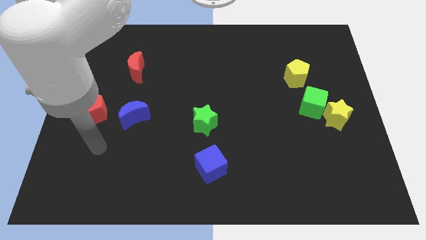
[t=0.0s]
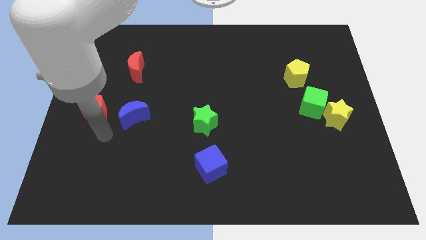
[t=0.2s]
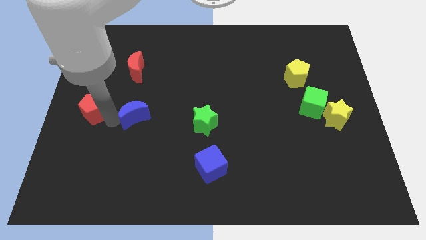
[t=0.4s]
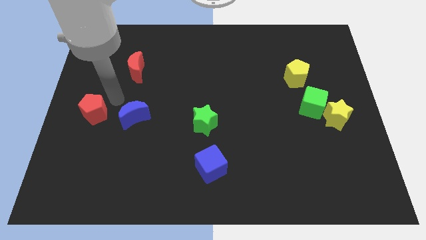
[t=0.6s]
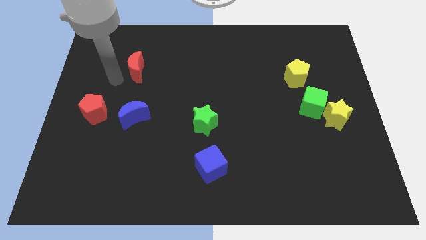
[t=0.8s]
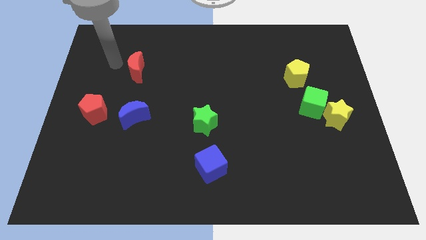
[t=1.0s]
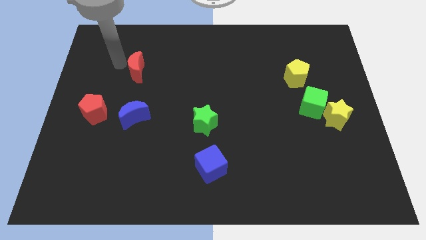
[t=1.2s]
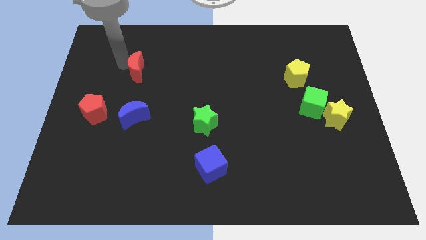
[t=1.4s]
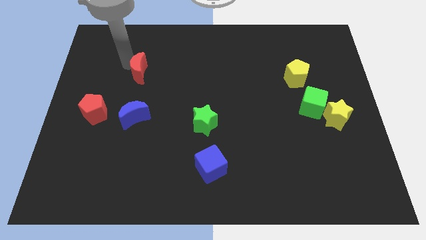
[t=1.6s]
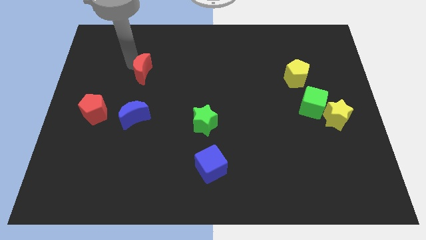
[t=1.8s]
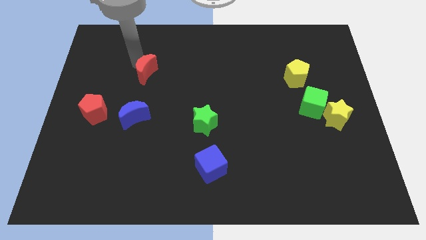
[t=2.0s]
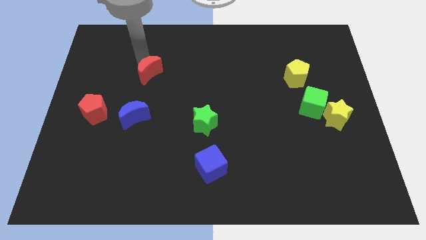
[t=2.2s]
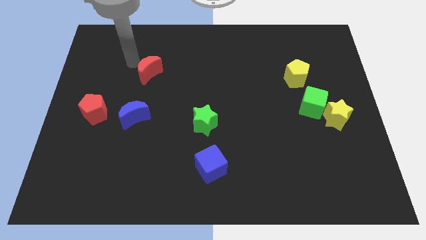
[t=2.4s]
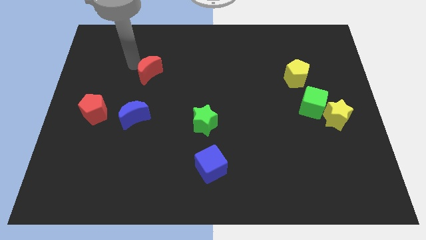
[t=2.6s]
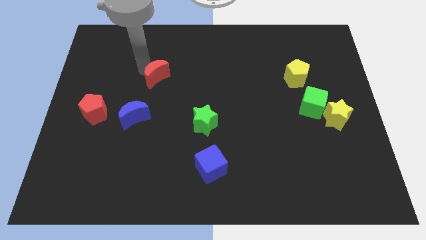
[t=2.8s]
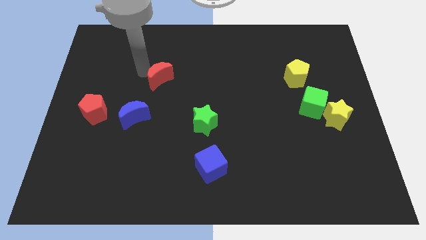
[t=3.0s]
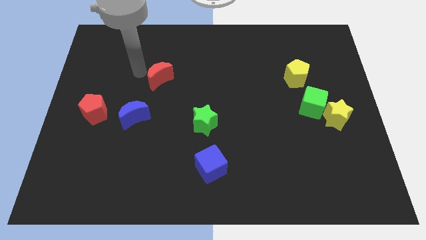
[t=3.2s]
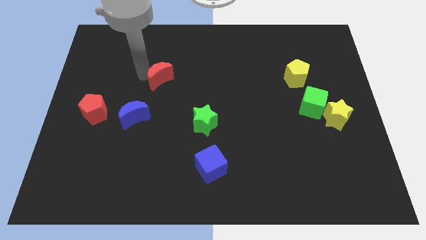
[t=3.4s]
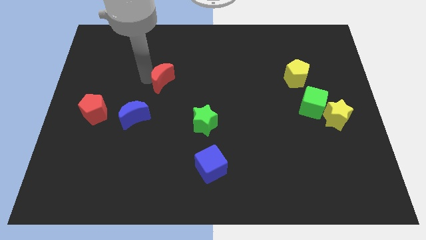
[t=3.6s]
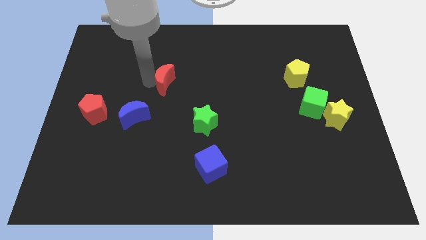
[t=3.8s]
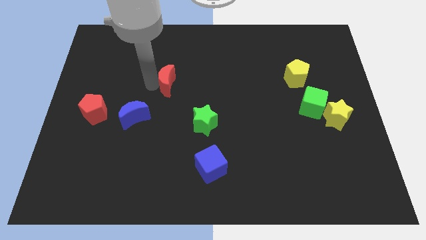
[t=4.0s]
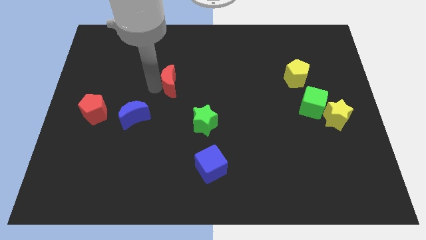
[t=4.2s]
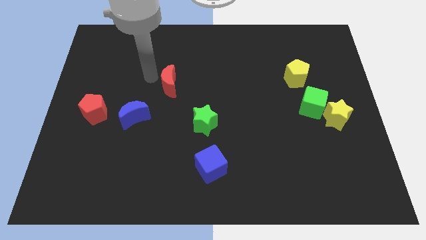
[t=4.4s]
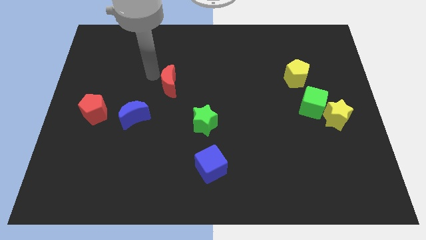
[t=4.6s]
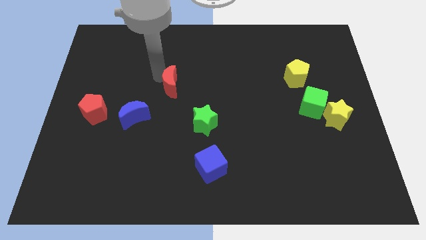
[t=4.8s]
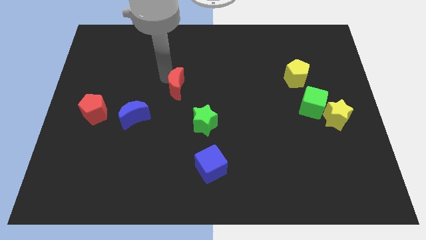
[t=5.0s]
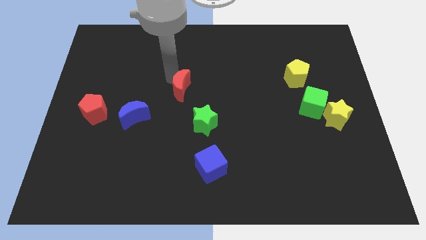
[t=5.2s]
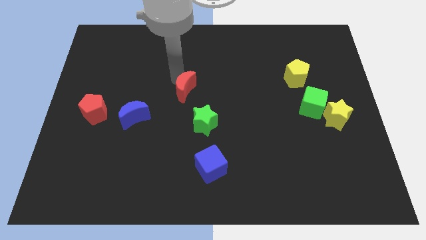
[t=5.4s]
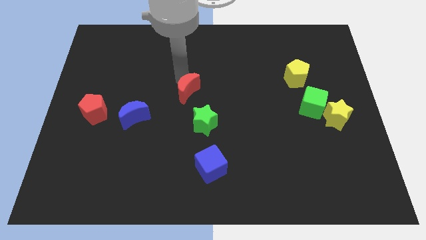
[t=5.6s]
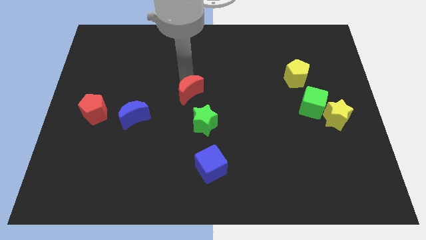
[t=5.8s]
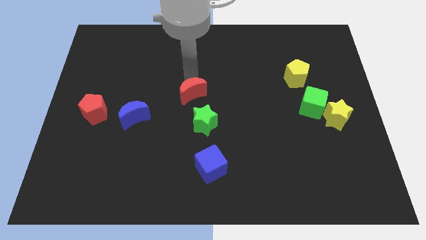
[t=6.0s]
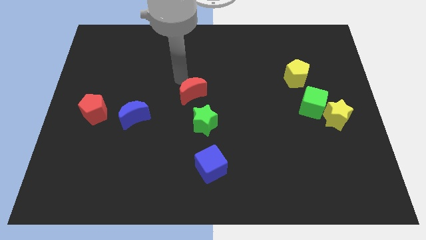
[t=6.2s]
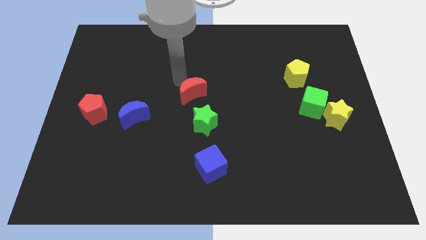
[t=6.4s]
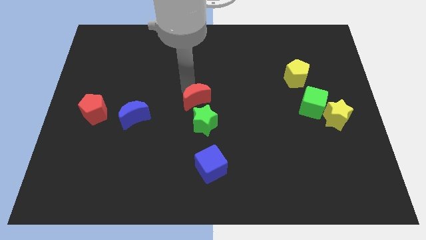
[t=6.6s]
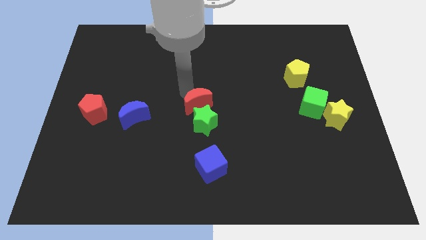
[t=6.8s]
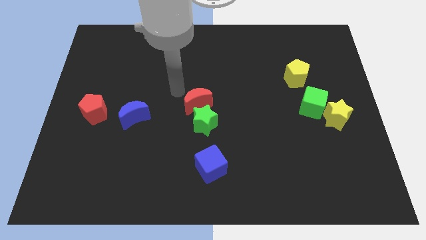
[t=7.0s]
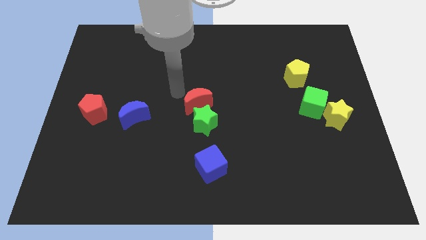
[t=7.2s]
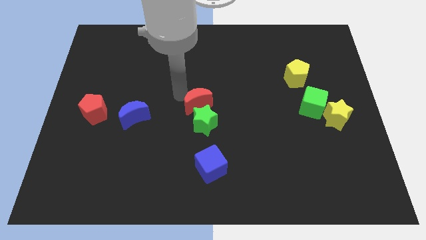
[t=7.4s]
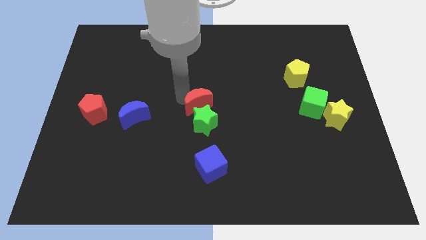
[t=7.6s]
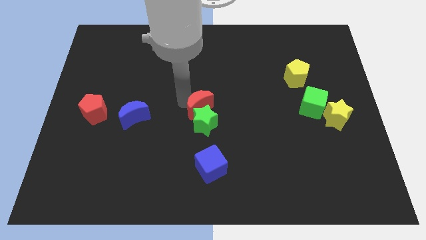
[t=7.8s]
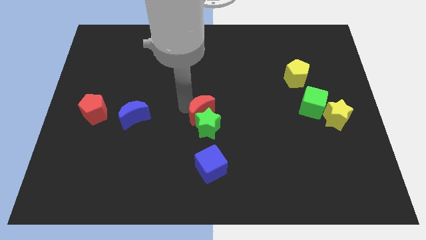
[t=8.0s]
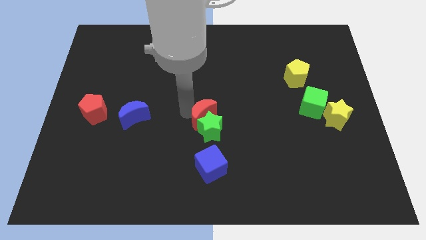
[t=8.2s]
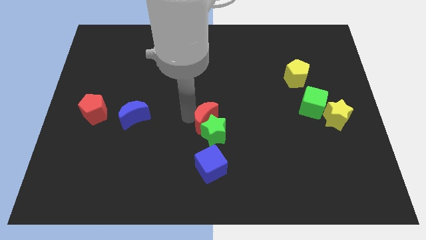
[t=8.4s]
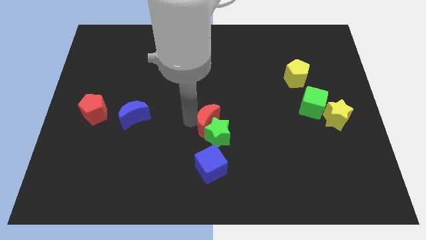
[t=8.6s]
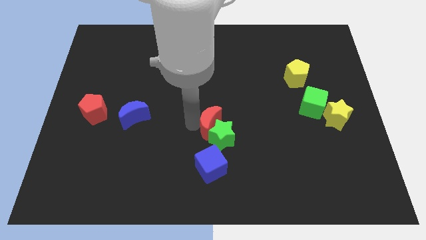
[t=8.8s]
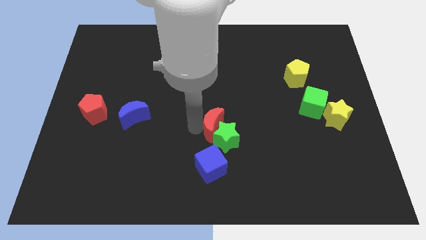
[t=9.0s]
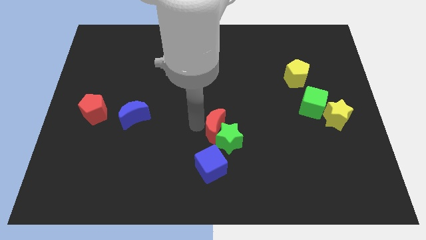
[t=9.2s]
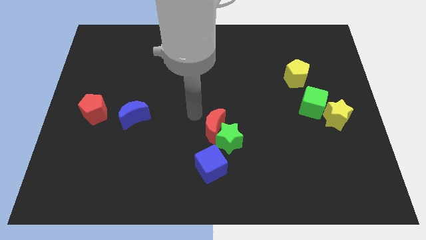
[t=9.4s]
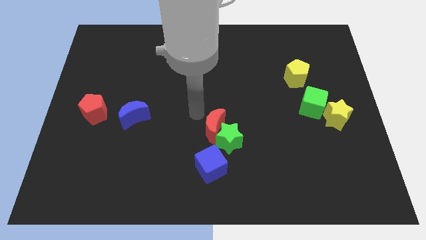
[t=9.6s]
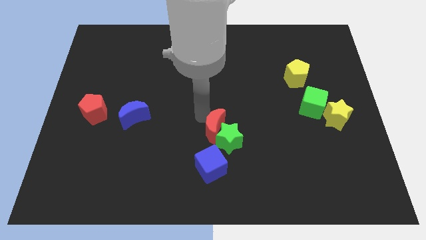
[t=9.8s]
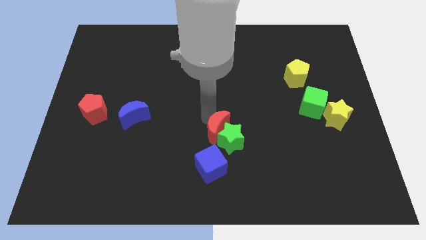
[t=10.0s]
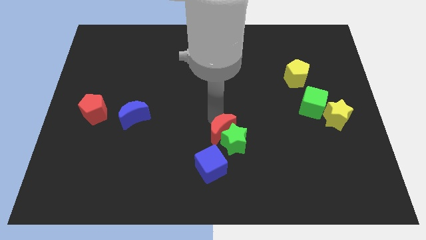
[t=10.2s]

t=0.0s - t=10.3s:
put the red moon to the top right side of the blue cube

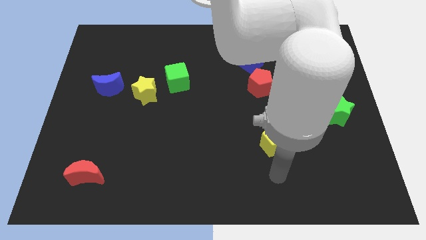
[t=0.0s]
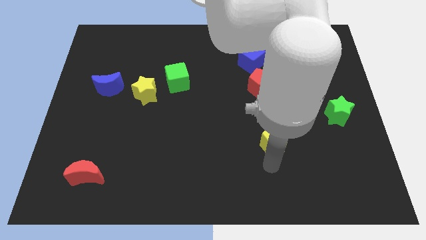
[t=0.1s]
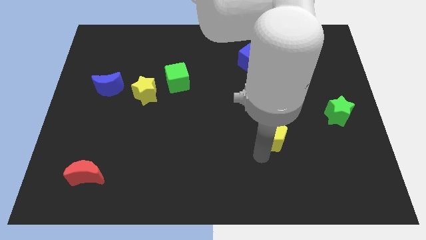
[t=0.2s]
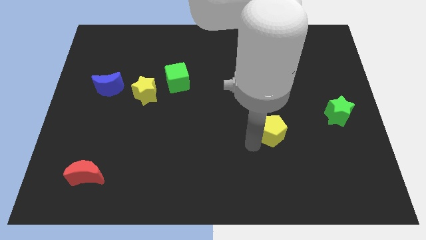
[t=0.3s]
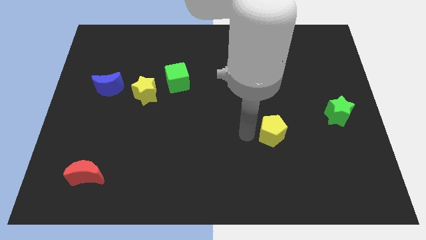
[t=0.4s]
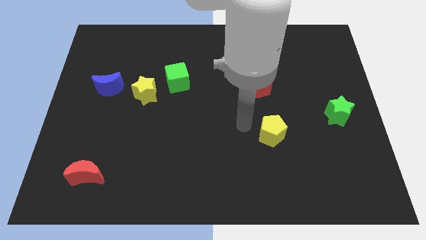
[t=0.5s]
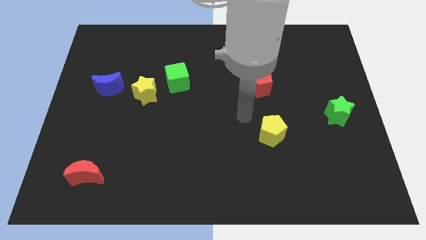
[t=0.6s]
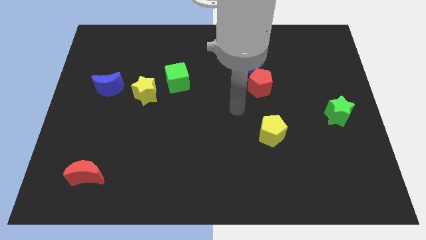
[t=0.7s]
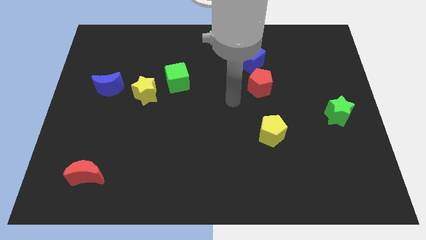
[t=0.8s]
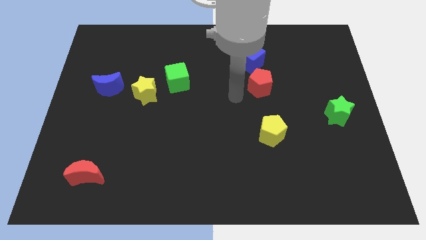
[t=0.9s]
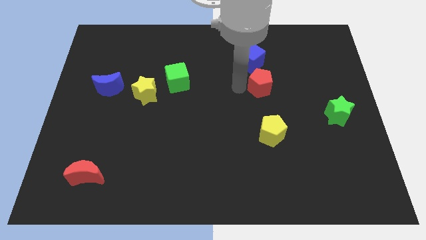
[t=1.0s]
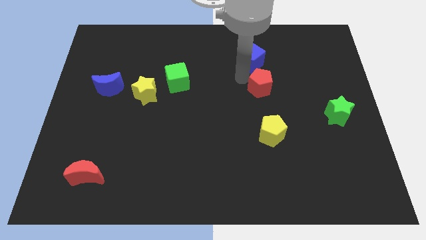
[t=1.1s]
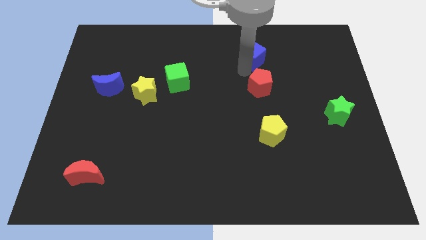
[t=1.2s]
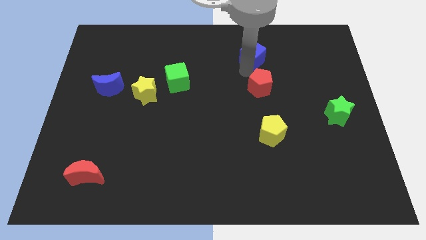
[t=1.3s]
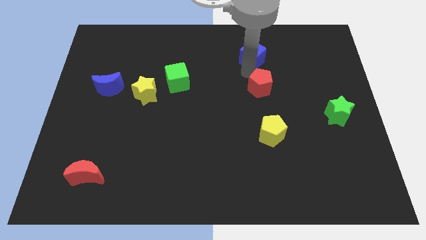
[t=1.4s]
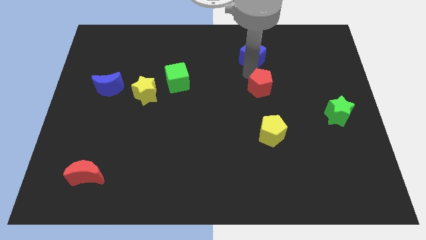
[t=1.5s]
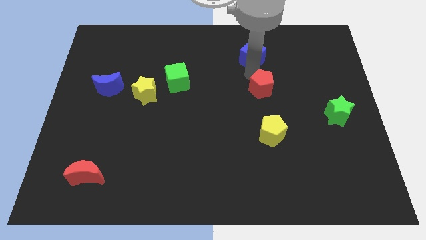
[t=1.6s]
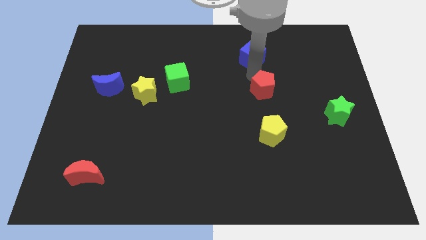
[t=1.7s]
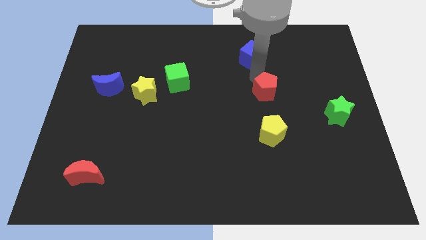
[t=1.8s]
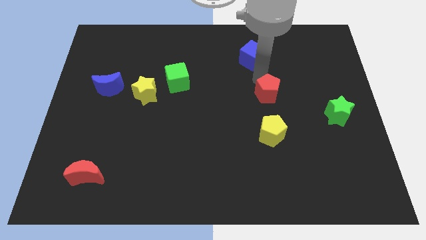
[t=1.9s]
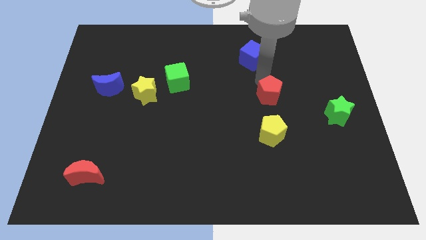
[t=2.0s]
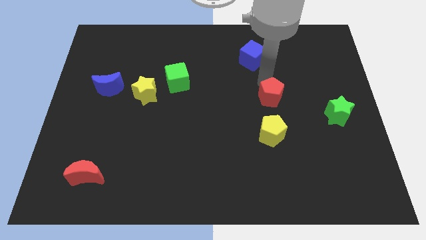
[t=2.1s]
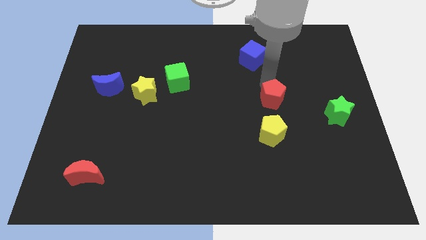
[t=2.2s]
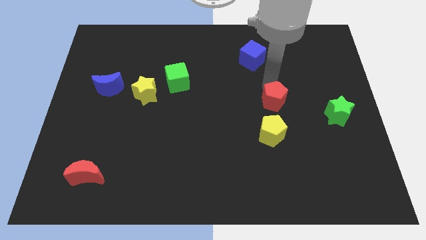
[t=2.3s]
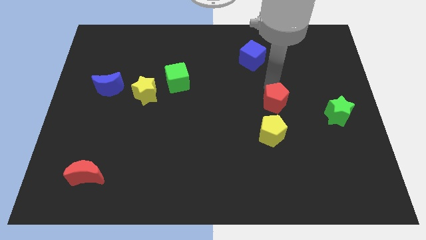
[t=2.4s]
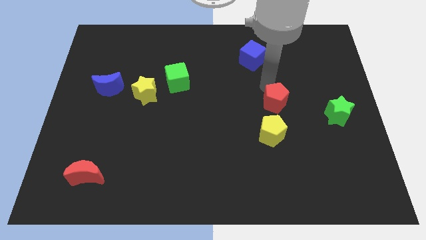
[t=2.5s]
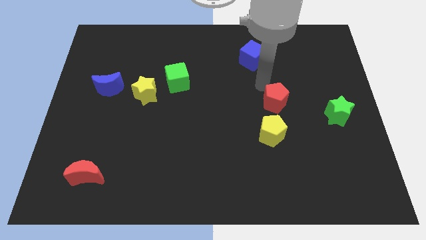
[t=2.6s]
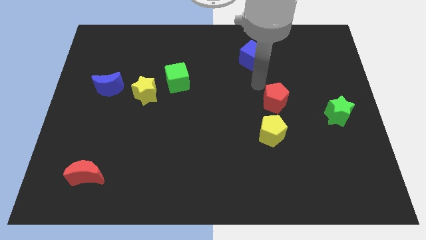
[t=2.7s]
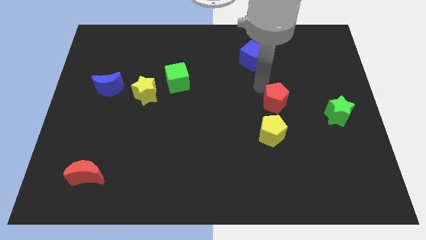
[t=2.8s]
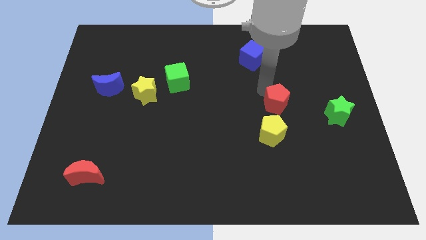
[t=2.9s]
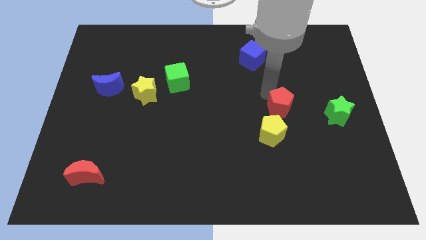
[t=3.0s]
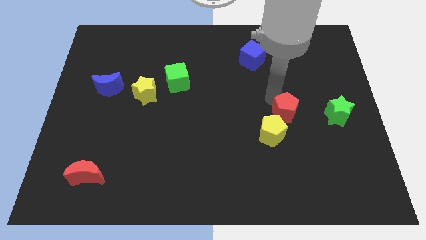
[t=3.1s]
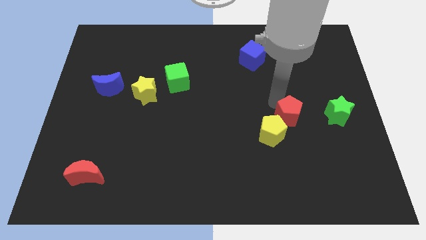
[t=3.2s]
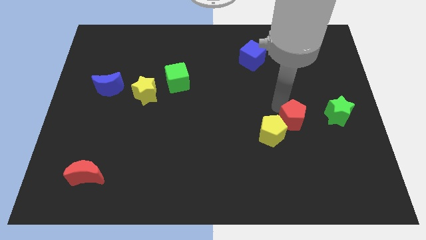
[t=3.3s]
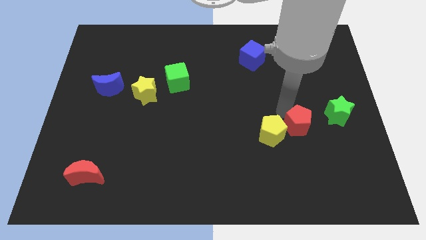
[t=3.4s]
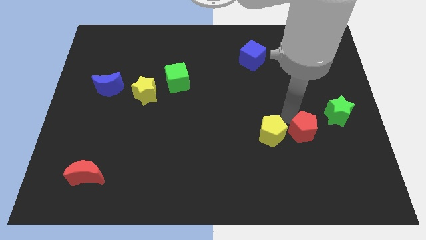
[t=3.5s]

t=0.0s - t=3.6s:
put the red pentagon to the bottom left side of the green star
